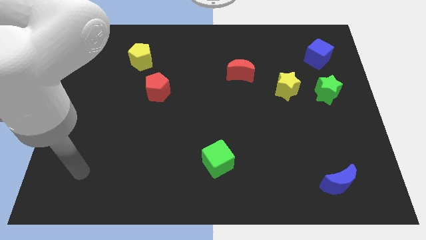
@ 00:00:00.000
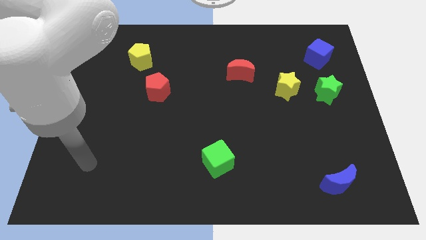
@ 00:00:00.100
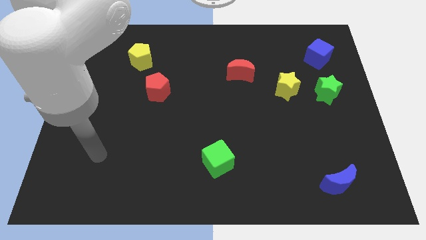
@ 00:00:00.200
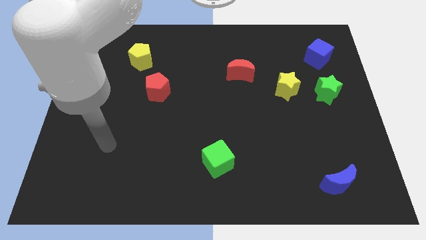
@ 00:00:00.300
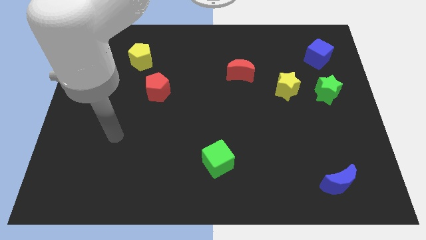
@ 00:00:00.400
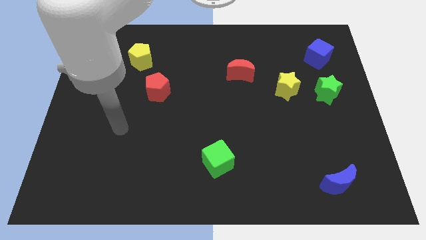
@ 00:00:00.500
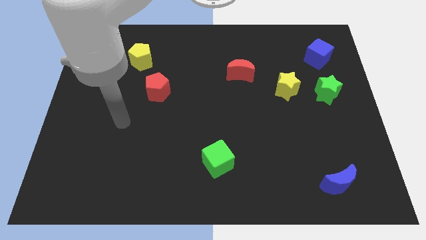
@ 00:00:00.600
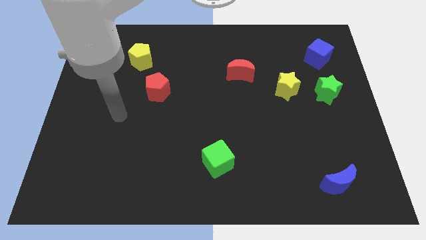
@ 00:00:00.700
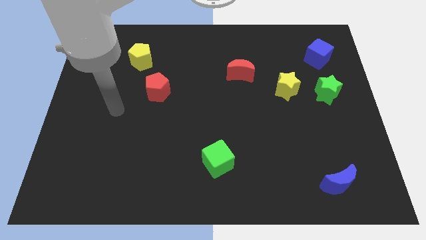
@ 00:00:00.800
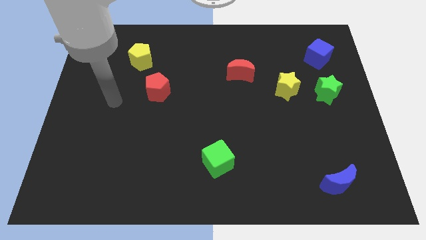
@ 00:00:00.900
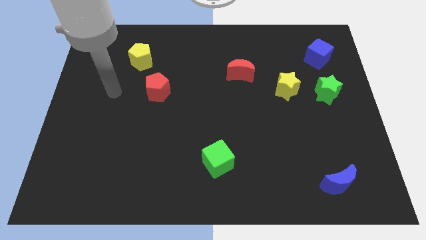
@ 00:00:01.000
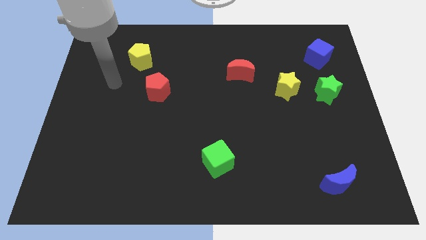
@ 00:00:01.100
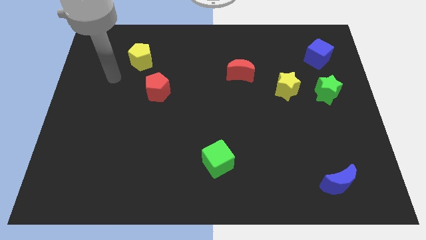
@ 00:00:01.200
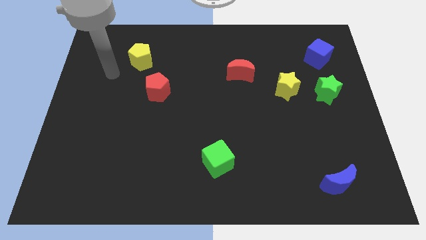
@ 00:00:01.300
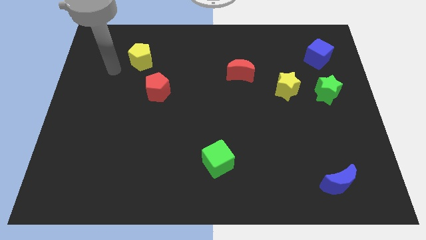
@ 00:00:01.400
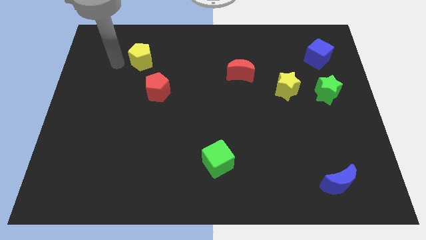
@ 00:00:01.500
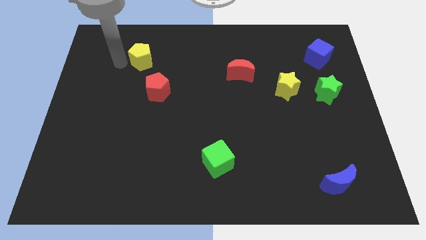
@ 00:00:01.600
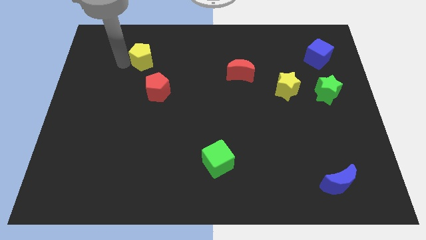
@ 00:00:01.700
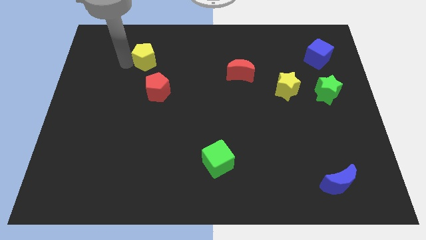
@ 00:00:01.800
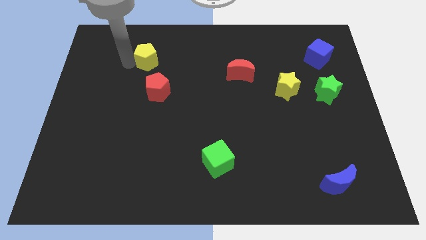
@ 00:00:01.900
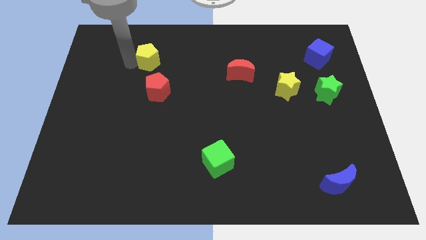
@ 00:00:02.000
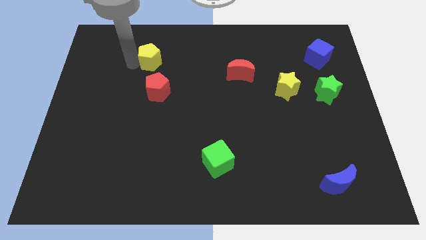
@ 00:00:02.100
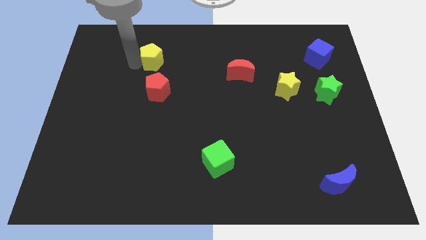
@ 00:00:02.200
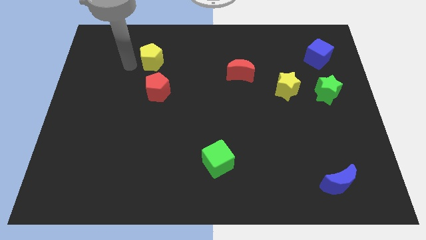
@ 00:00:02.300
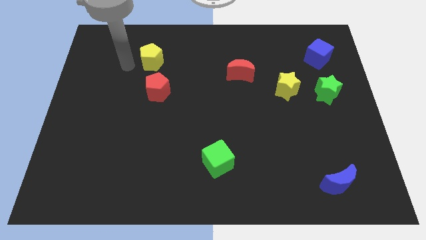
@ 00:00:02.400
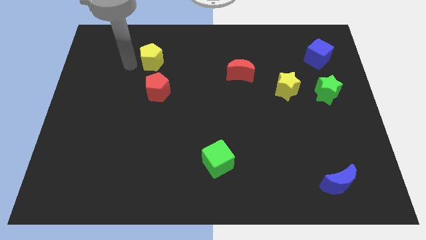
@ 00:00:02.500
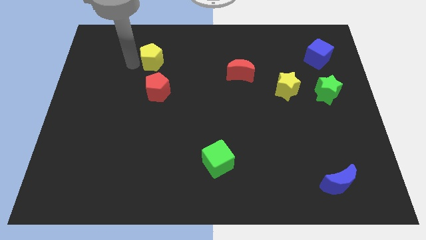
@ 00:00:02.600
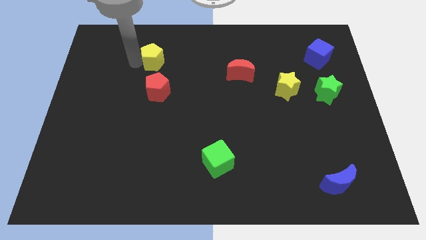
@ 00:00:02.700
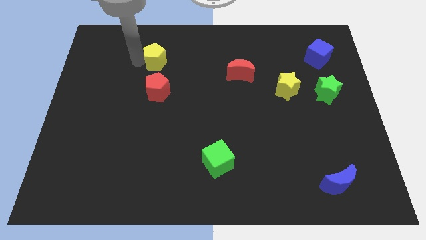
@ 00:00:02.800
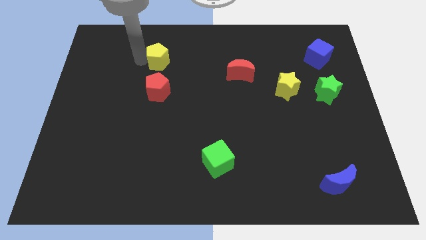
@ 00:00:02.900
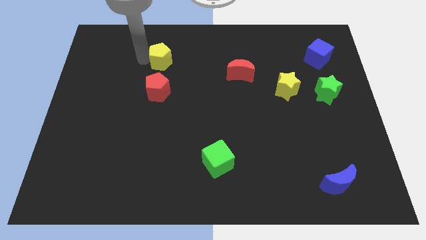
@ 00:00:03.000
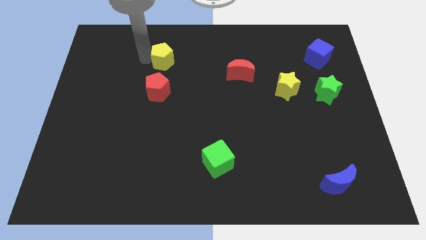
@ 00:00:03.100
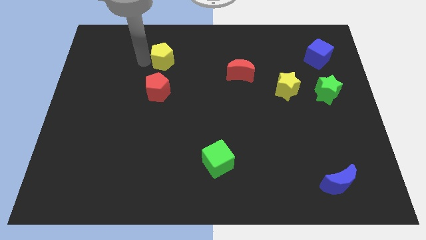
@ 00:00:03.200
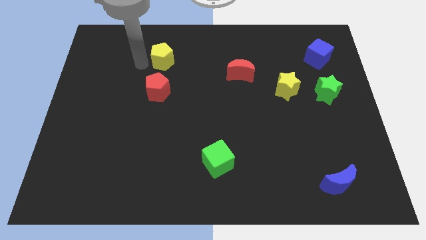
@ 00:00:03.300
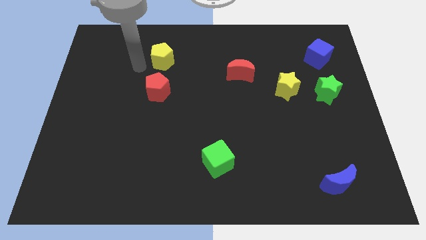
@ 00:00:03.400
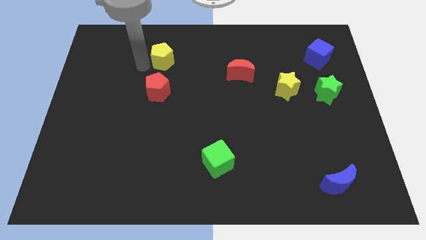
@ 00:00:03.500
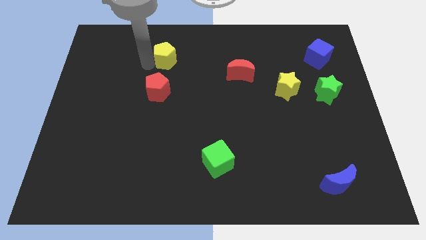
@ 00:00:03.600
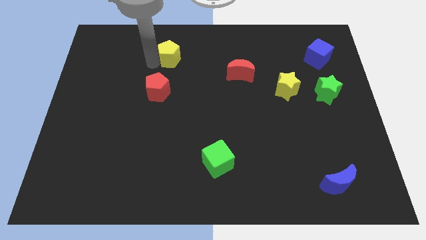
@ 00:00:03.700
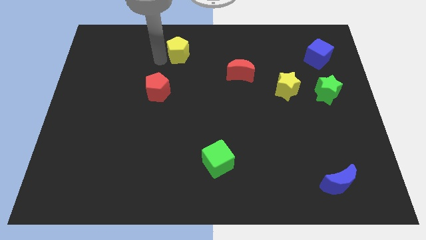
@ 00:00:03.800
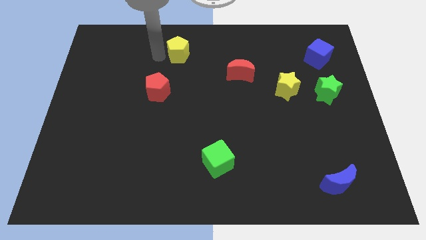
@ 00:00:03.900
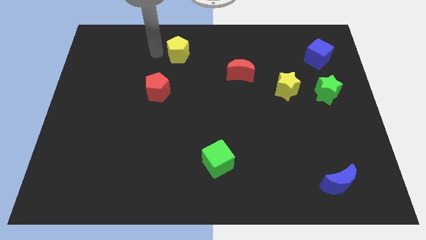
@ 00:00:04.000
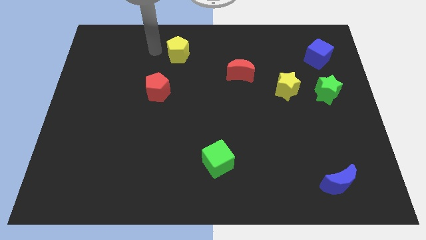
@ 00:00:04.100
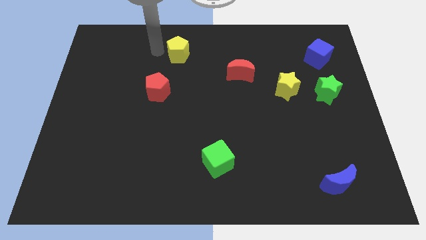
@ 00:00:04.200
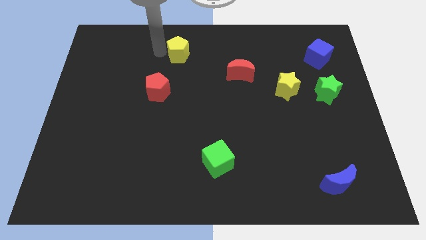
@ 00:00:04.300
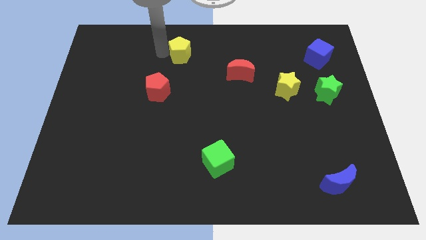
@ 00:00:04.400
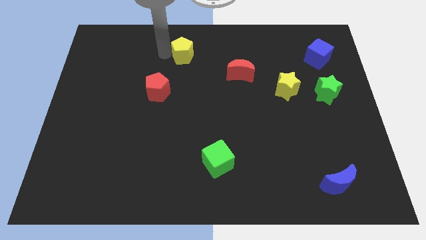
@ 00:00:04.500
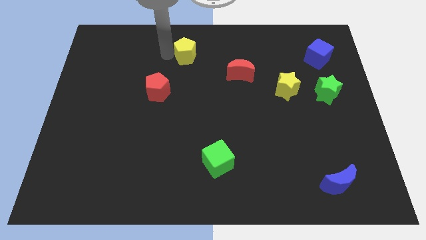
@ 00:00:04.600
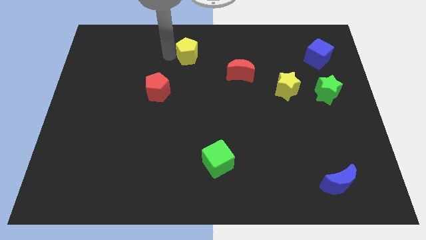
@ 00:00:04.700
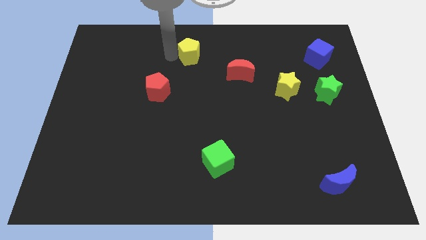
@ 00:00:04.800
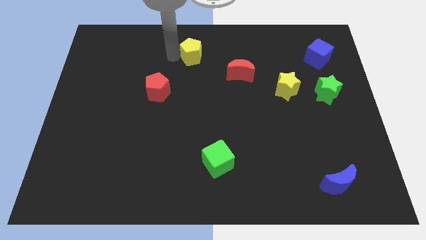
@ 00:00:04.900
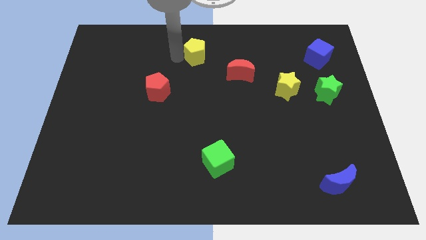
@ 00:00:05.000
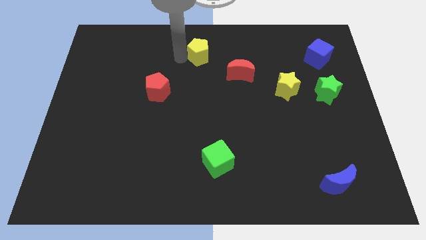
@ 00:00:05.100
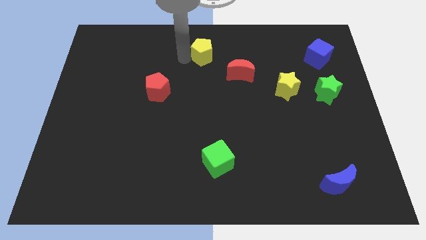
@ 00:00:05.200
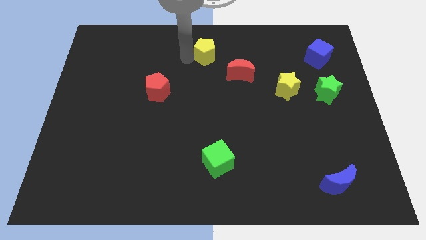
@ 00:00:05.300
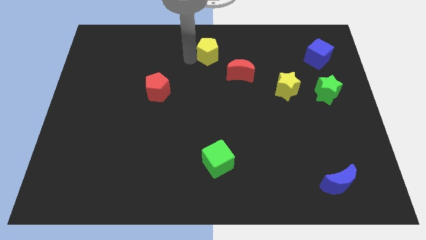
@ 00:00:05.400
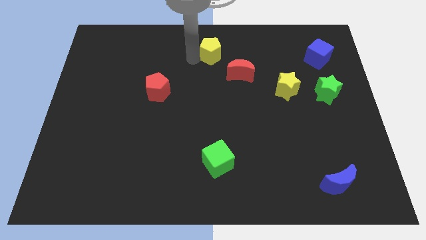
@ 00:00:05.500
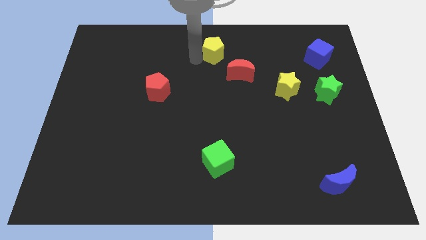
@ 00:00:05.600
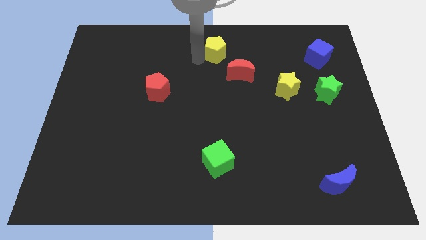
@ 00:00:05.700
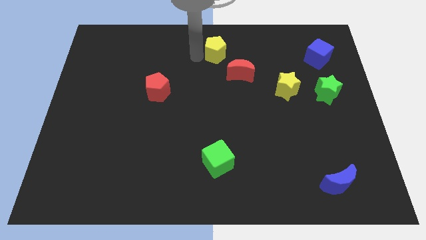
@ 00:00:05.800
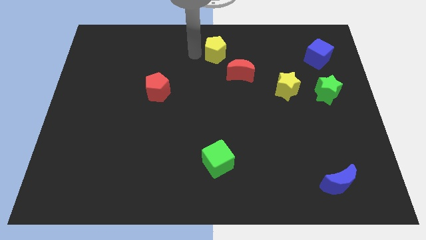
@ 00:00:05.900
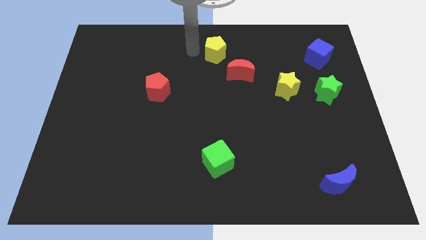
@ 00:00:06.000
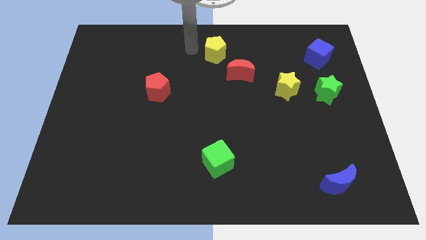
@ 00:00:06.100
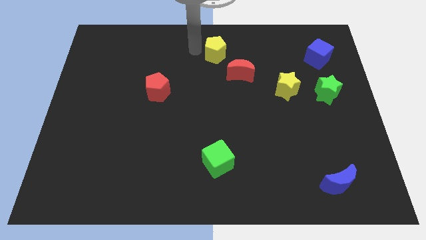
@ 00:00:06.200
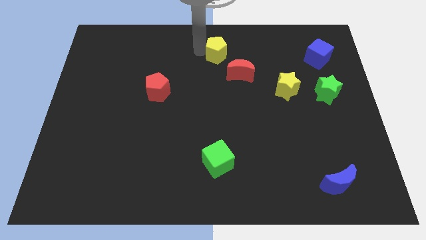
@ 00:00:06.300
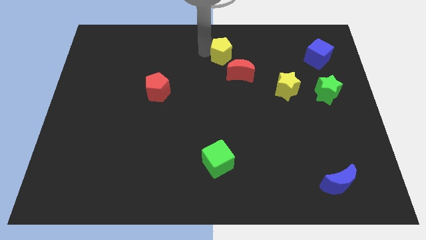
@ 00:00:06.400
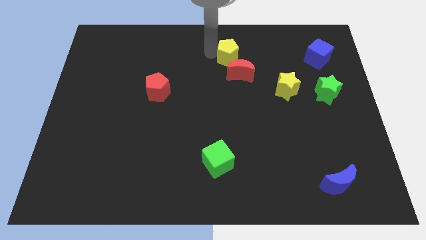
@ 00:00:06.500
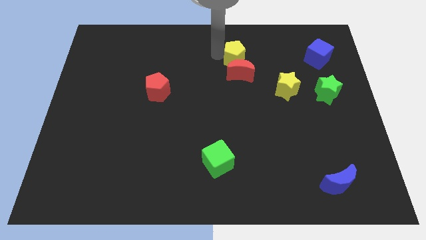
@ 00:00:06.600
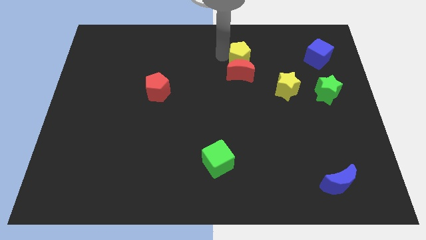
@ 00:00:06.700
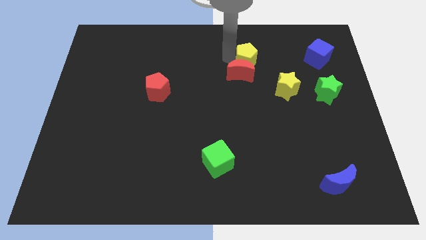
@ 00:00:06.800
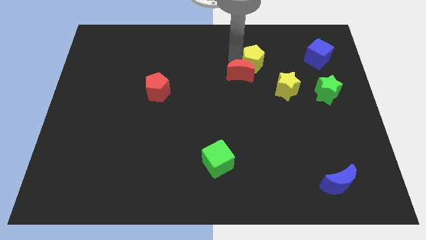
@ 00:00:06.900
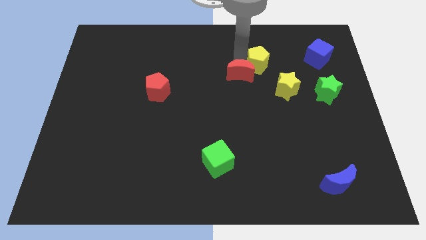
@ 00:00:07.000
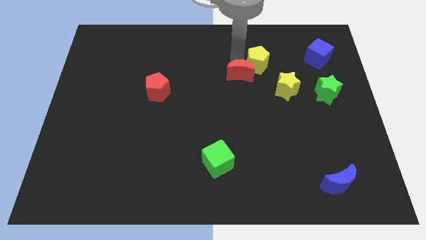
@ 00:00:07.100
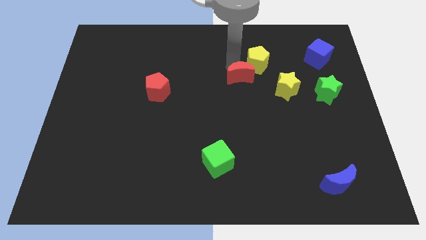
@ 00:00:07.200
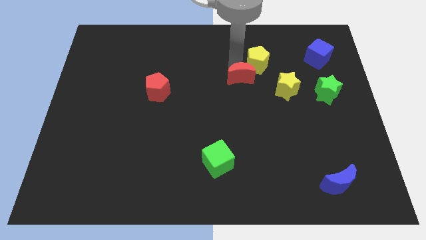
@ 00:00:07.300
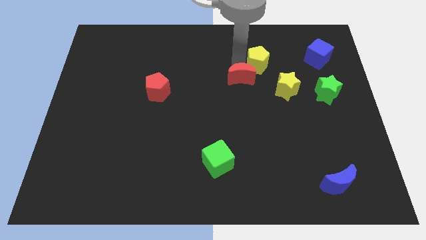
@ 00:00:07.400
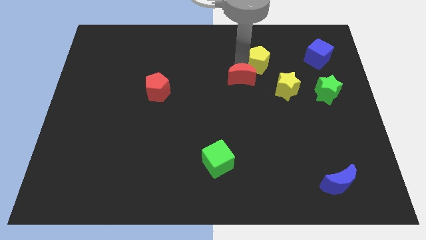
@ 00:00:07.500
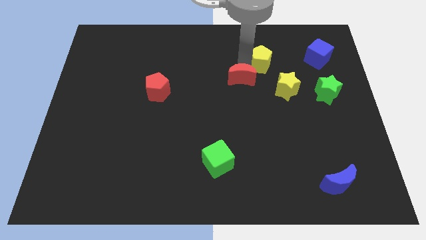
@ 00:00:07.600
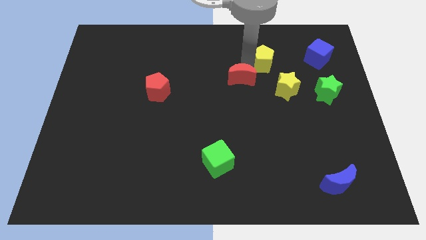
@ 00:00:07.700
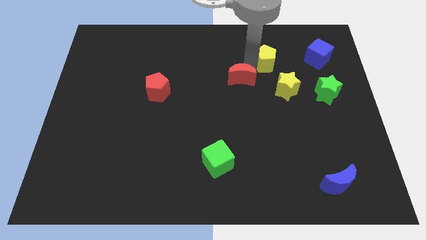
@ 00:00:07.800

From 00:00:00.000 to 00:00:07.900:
move the yellow pentagon to the top of the yellow star
